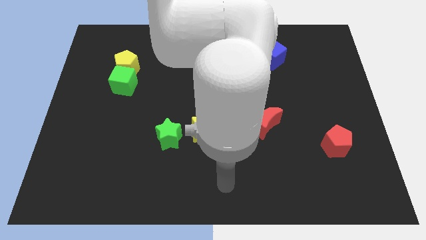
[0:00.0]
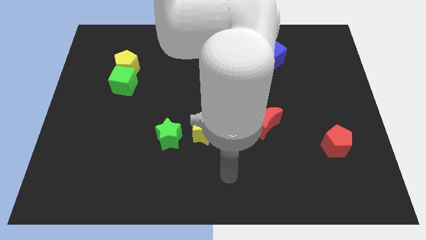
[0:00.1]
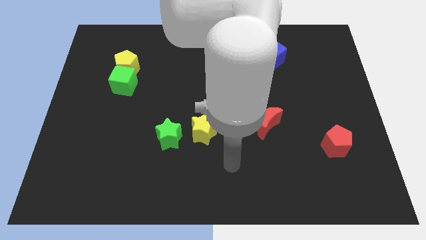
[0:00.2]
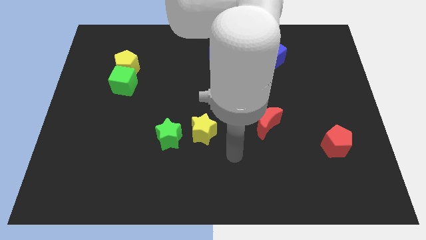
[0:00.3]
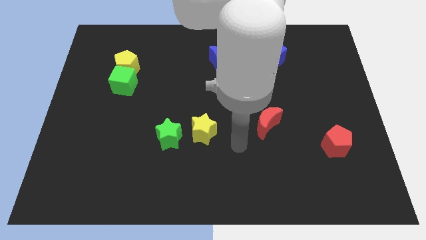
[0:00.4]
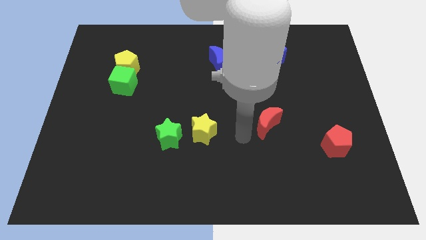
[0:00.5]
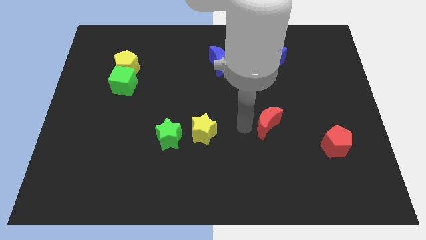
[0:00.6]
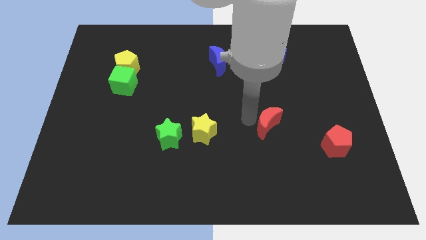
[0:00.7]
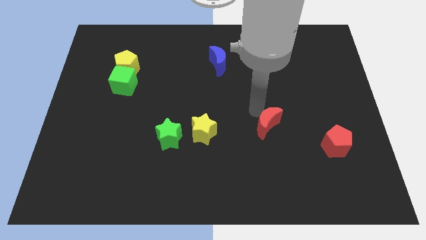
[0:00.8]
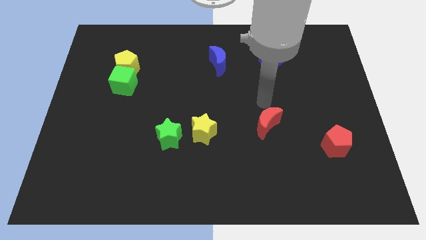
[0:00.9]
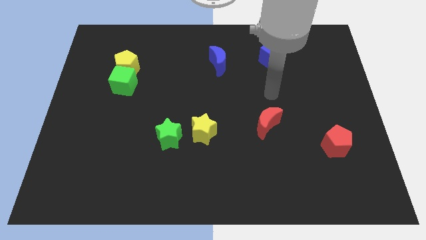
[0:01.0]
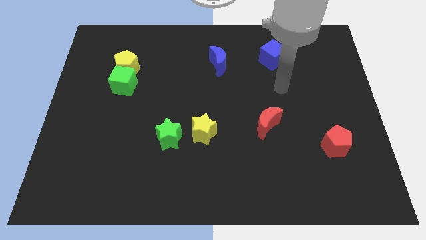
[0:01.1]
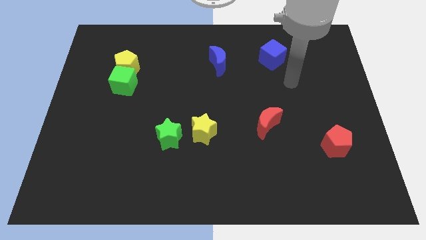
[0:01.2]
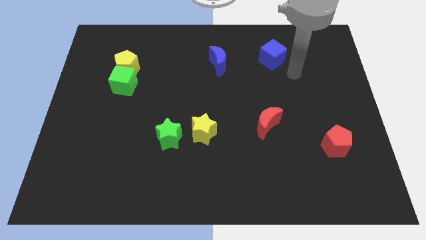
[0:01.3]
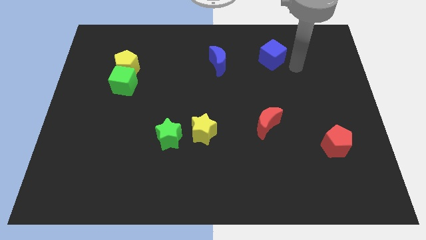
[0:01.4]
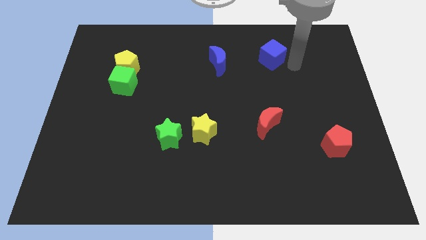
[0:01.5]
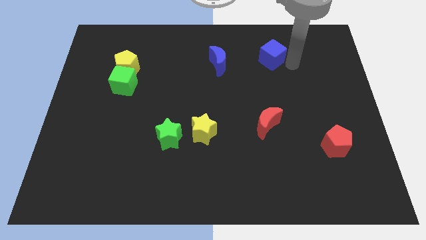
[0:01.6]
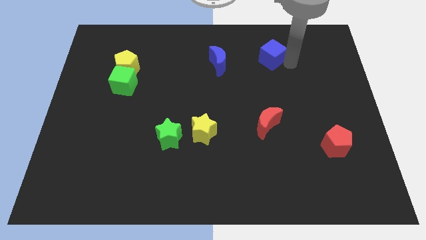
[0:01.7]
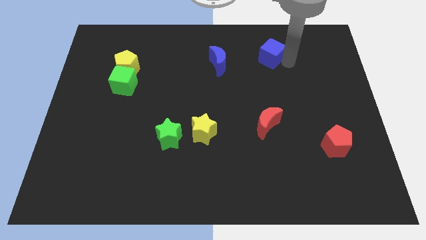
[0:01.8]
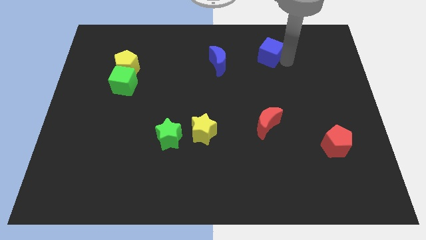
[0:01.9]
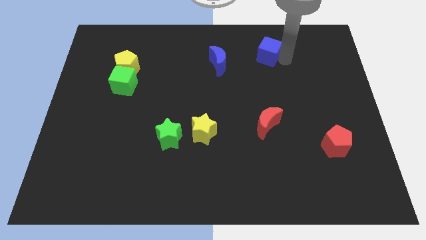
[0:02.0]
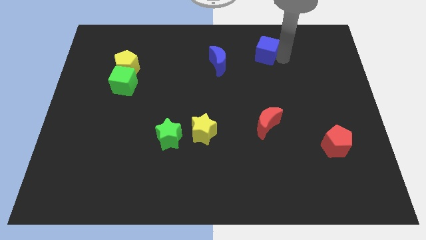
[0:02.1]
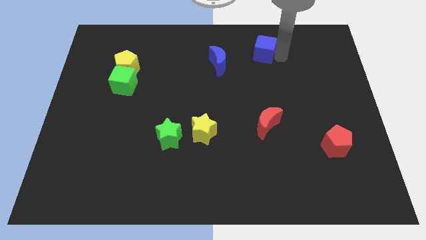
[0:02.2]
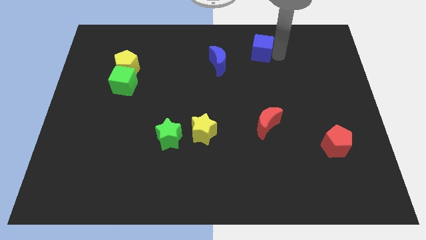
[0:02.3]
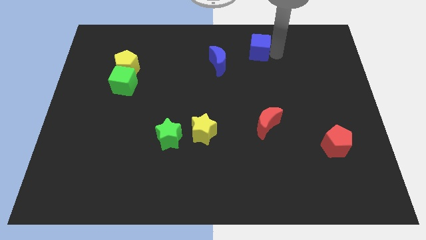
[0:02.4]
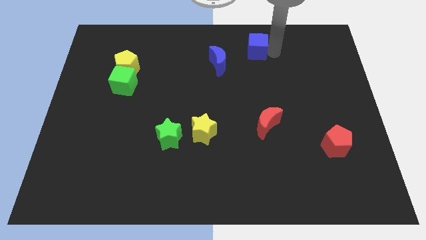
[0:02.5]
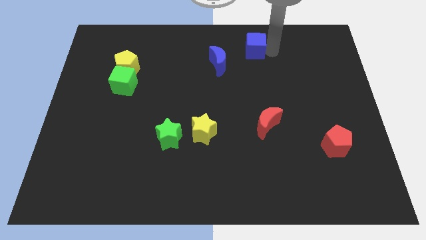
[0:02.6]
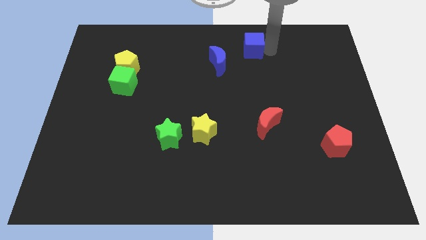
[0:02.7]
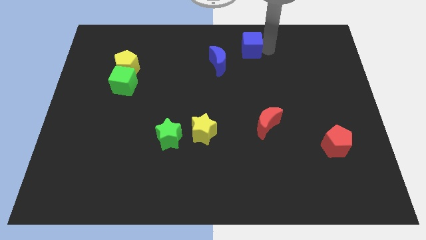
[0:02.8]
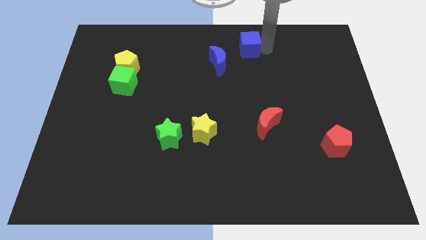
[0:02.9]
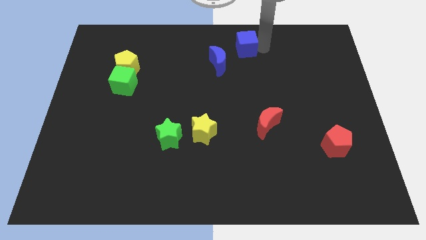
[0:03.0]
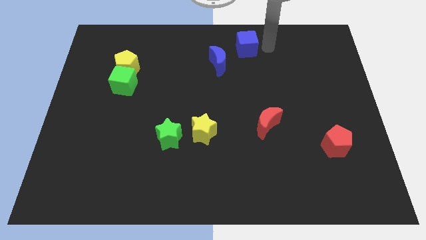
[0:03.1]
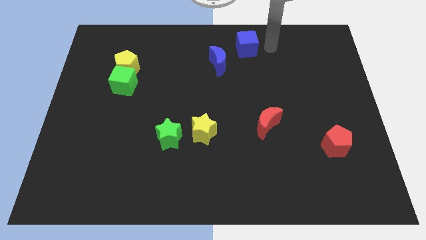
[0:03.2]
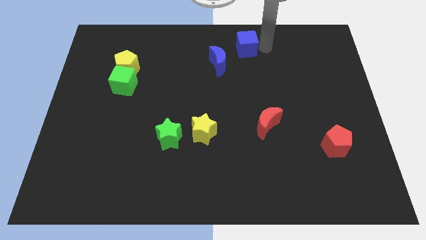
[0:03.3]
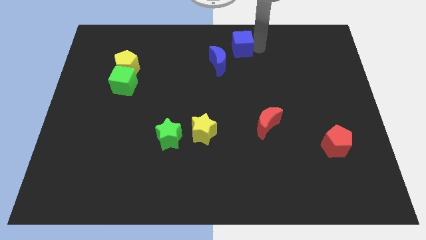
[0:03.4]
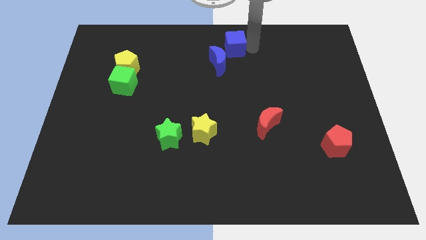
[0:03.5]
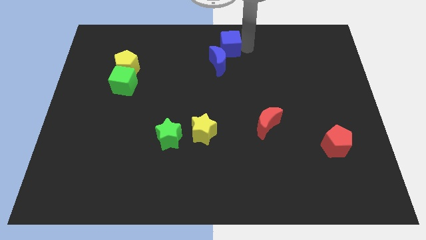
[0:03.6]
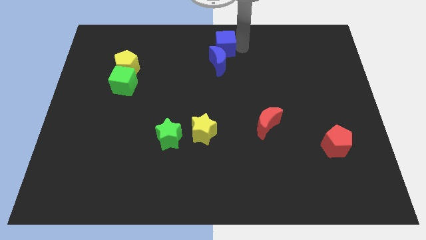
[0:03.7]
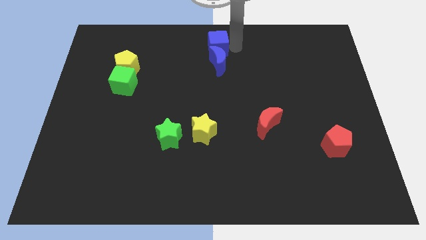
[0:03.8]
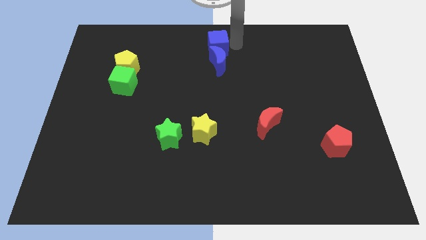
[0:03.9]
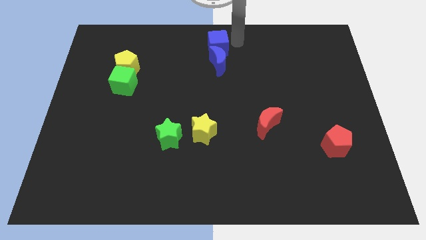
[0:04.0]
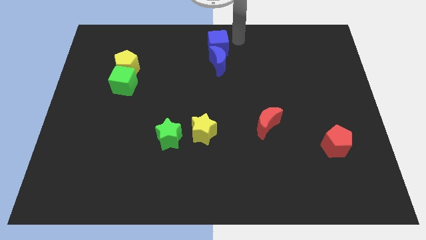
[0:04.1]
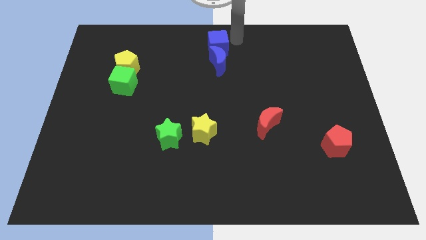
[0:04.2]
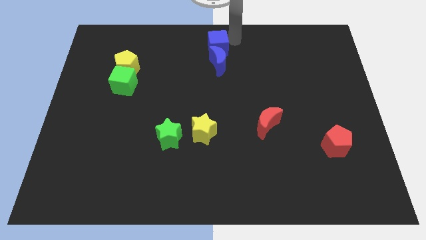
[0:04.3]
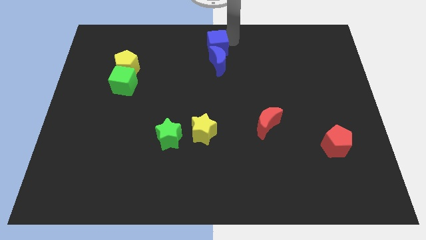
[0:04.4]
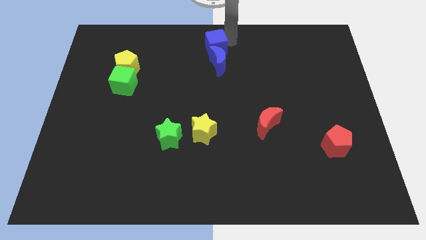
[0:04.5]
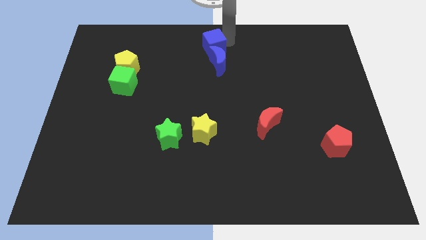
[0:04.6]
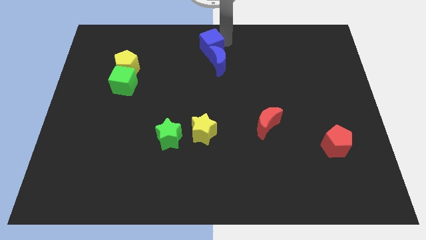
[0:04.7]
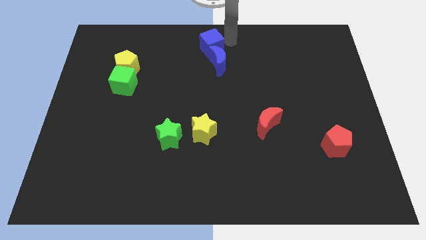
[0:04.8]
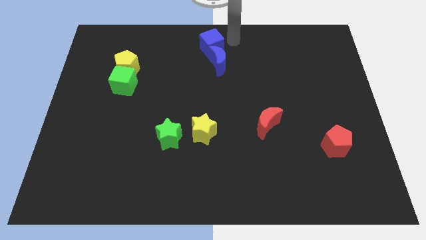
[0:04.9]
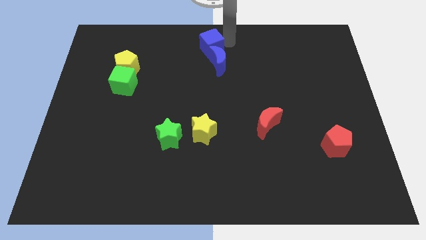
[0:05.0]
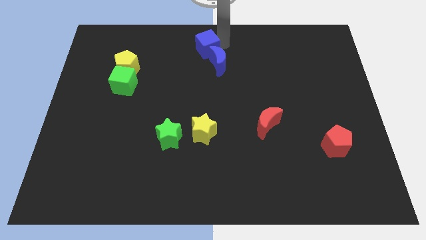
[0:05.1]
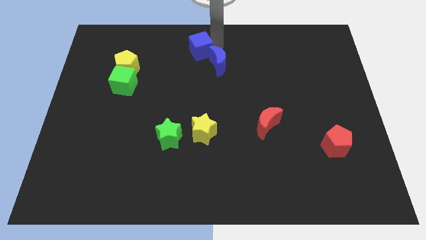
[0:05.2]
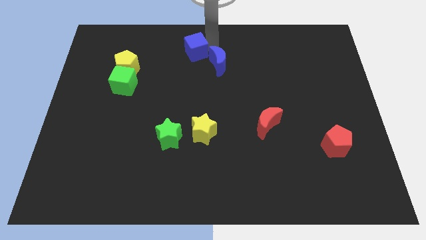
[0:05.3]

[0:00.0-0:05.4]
slide the blue cube left

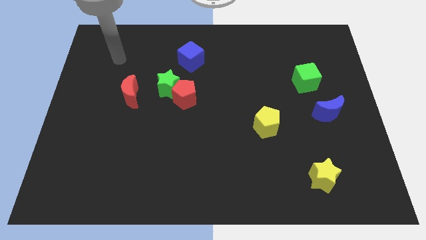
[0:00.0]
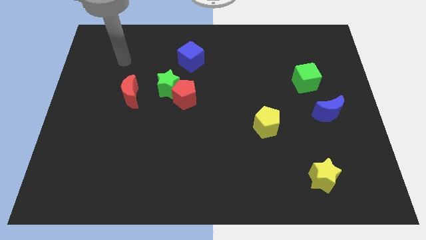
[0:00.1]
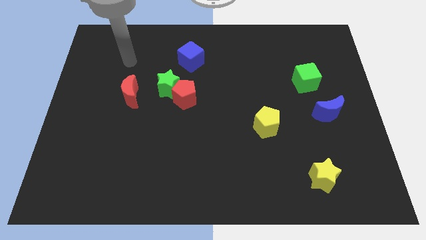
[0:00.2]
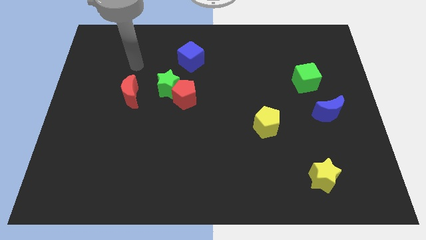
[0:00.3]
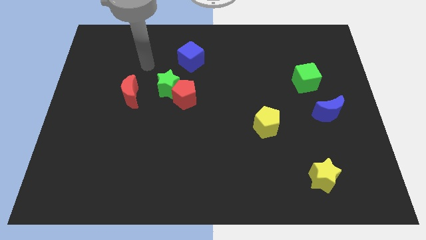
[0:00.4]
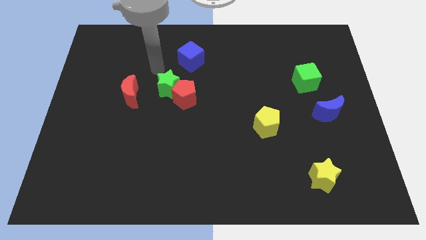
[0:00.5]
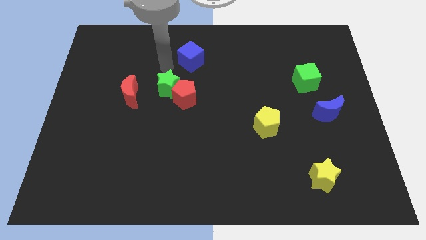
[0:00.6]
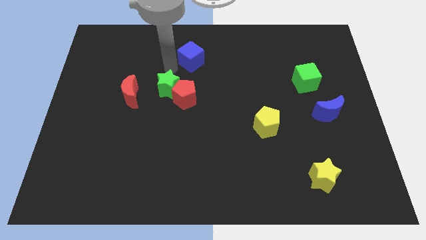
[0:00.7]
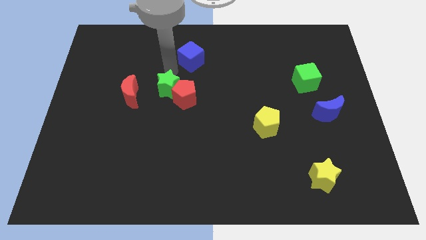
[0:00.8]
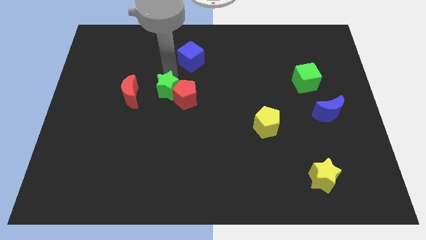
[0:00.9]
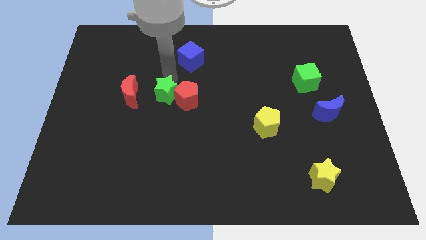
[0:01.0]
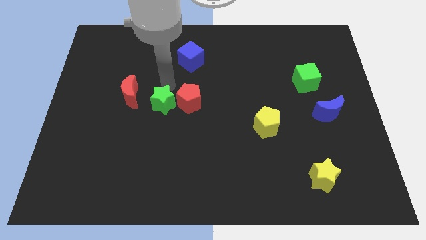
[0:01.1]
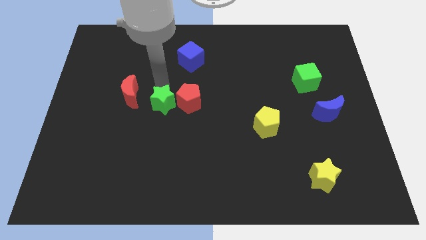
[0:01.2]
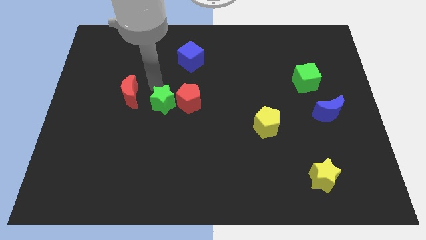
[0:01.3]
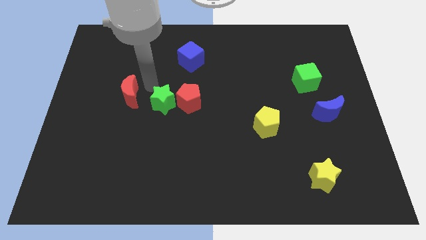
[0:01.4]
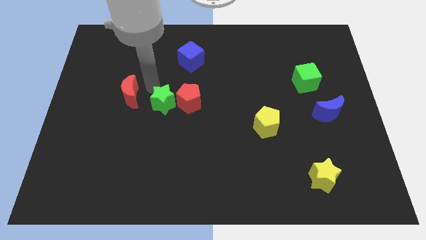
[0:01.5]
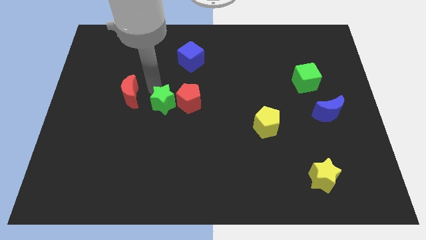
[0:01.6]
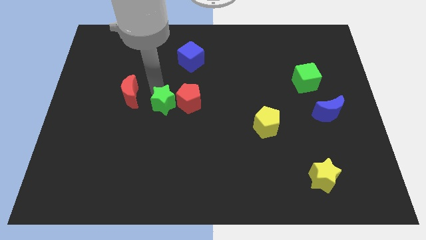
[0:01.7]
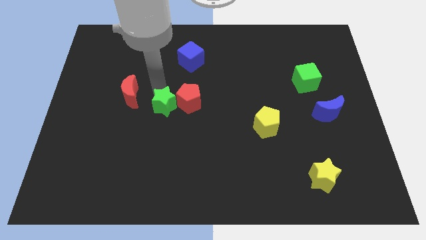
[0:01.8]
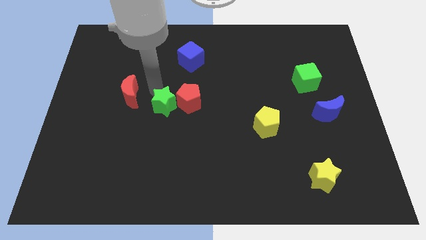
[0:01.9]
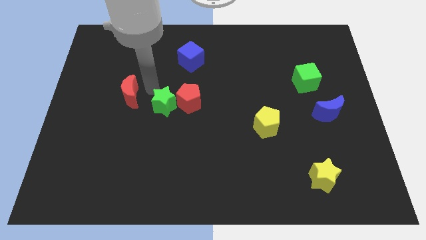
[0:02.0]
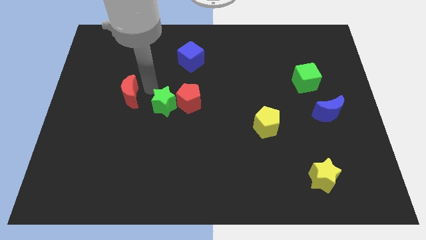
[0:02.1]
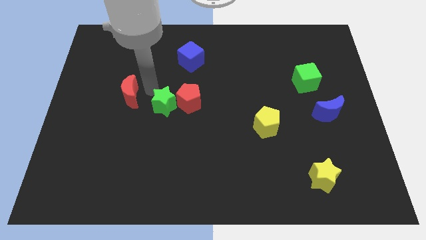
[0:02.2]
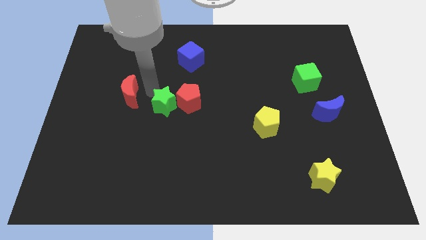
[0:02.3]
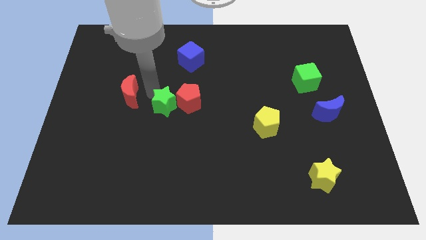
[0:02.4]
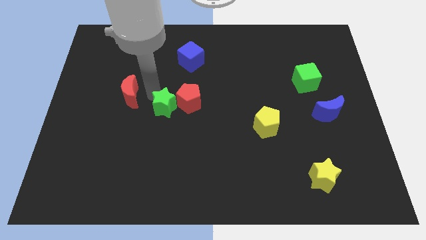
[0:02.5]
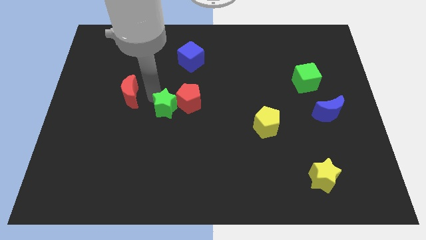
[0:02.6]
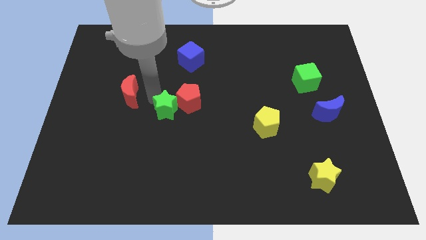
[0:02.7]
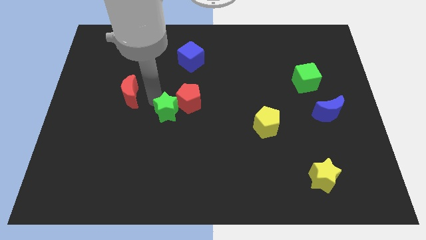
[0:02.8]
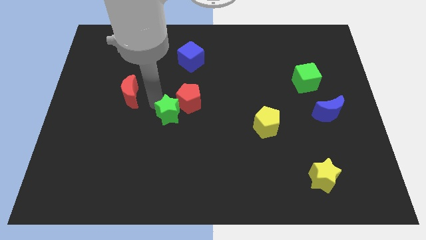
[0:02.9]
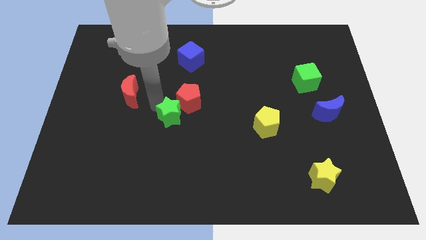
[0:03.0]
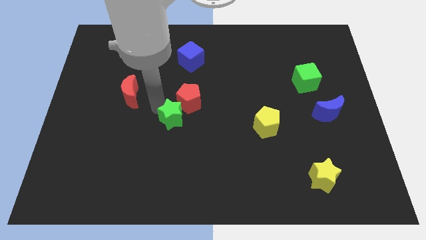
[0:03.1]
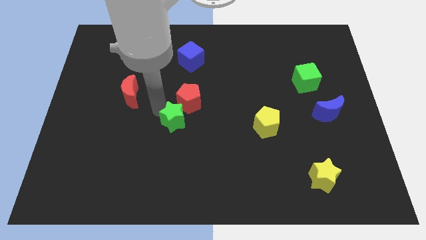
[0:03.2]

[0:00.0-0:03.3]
push the green star downwards and then right a bit
